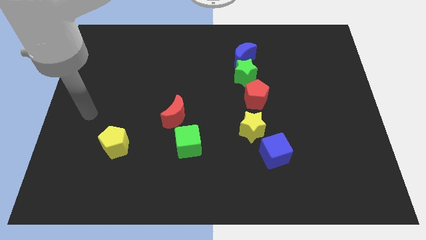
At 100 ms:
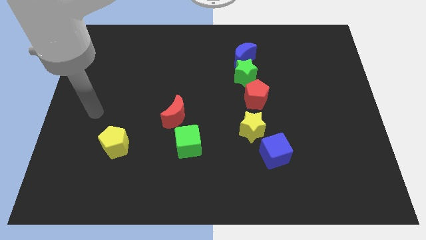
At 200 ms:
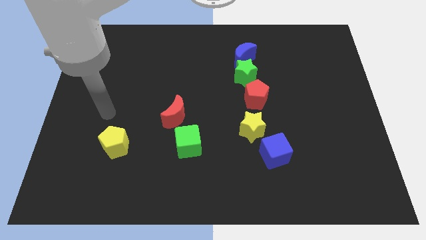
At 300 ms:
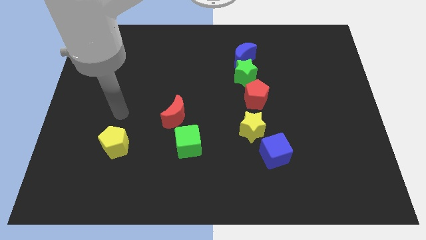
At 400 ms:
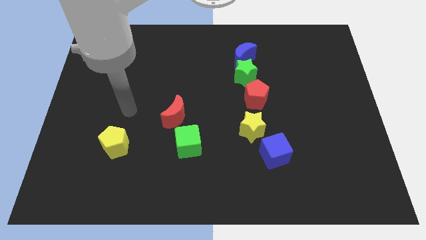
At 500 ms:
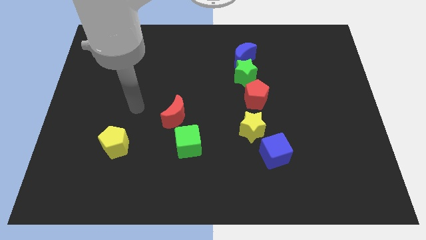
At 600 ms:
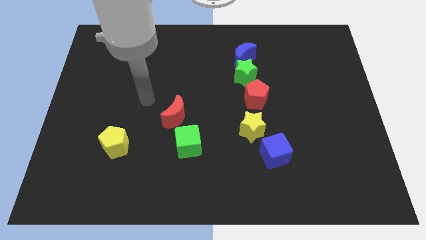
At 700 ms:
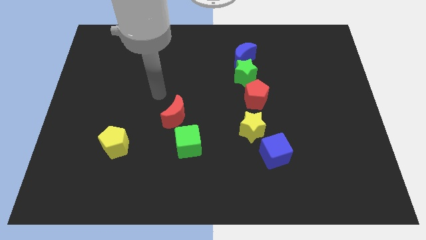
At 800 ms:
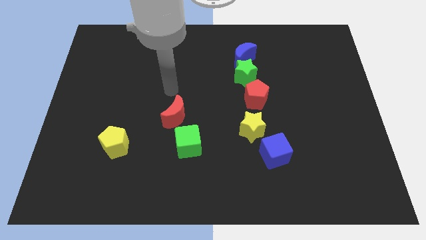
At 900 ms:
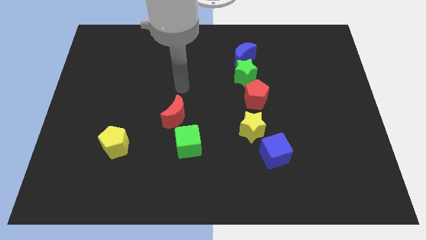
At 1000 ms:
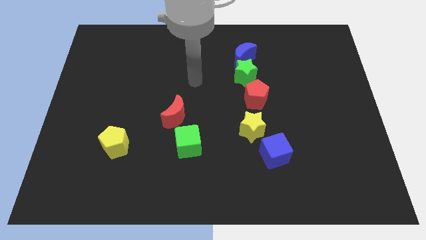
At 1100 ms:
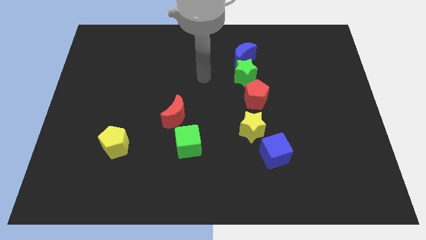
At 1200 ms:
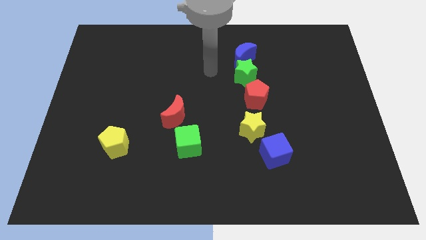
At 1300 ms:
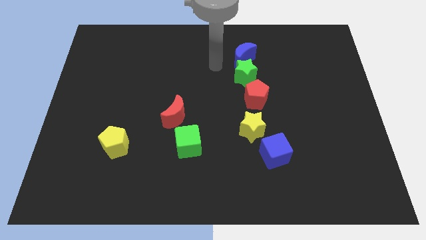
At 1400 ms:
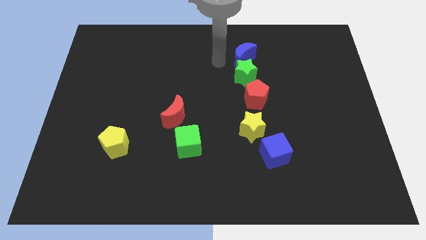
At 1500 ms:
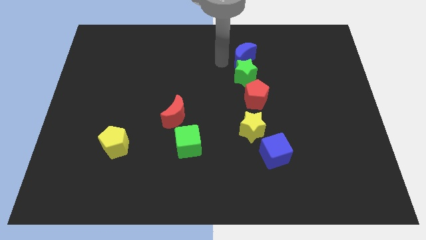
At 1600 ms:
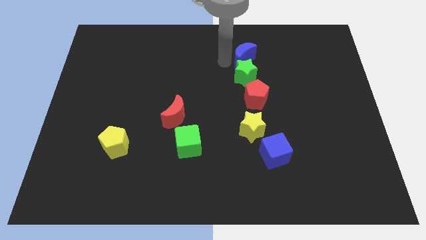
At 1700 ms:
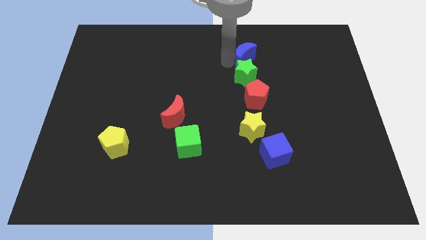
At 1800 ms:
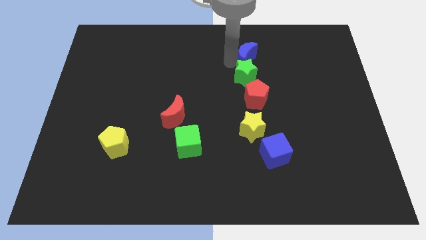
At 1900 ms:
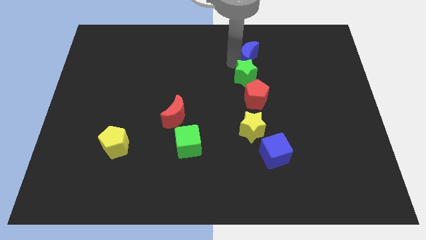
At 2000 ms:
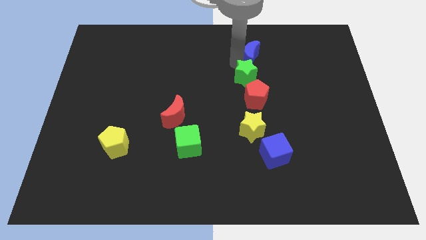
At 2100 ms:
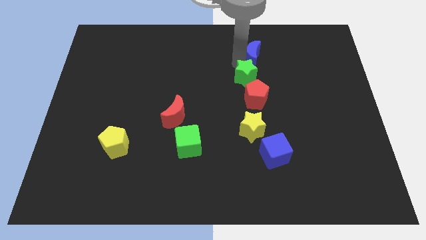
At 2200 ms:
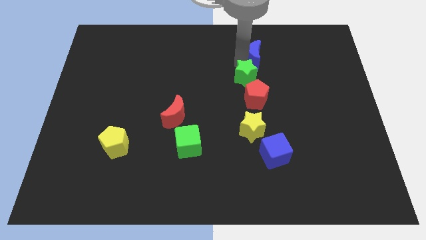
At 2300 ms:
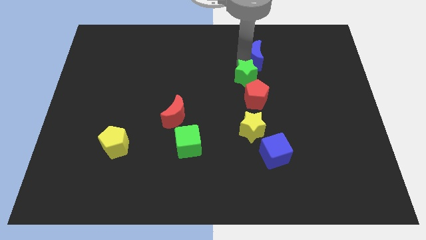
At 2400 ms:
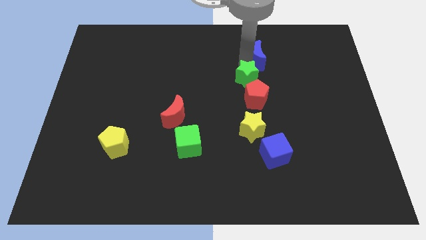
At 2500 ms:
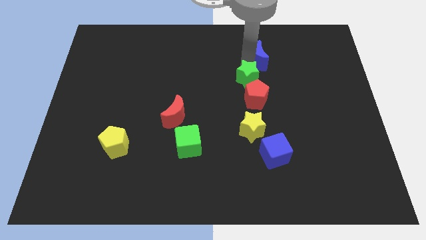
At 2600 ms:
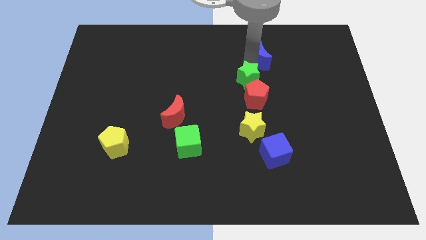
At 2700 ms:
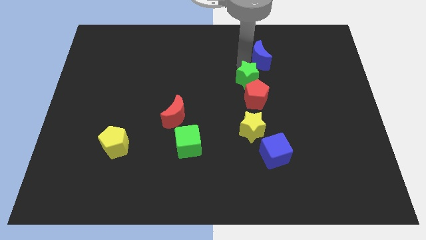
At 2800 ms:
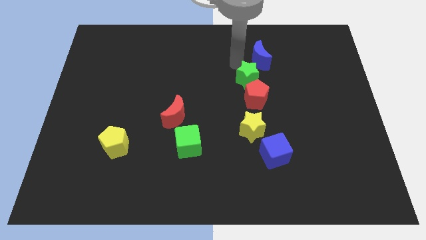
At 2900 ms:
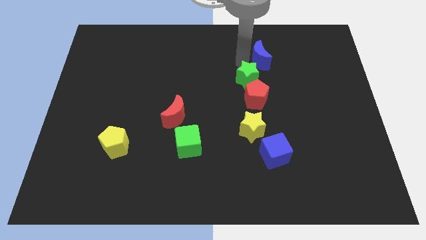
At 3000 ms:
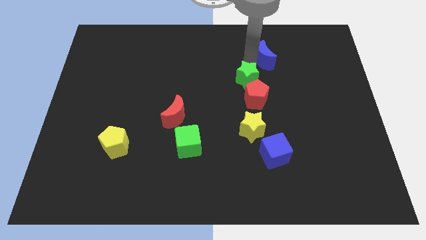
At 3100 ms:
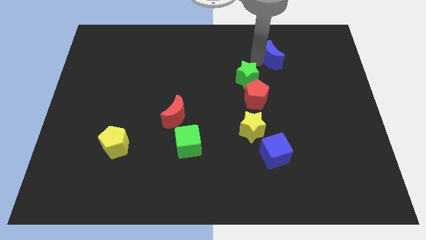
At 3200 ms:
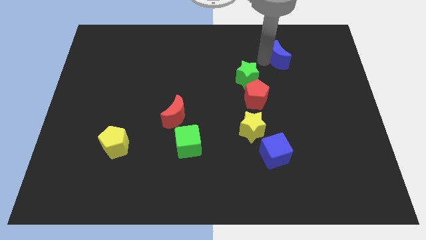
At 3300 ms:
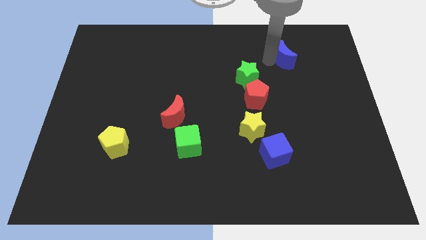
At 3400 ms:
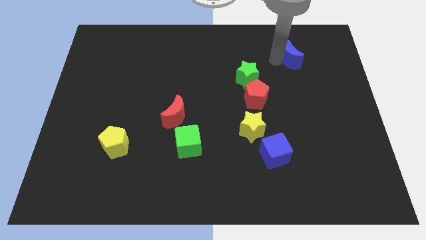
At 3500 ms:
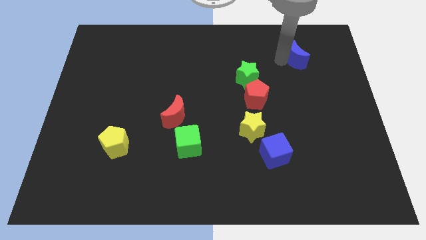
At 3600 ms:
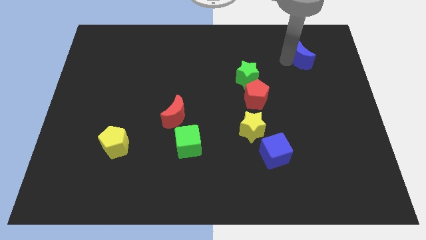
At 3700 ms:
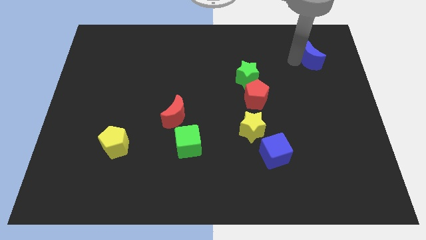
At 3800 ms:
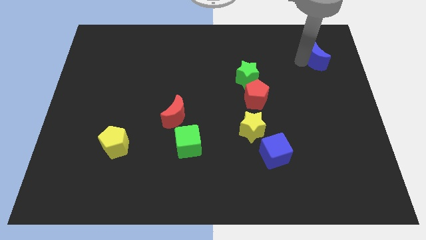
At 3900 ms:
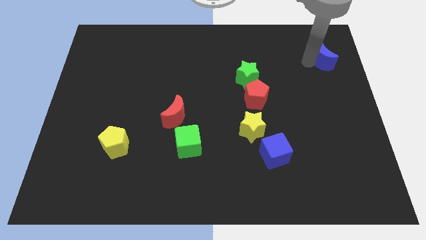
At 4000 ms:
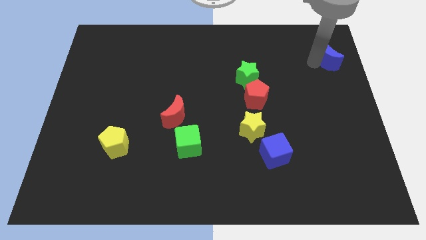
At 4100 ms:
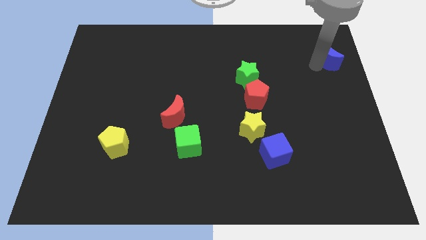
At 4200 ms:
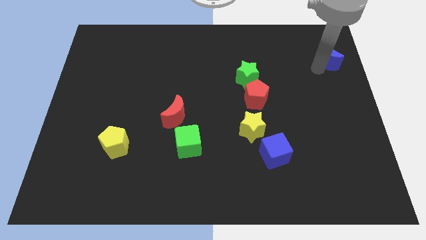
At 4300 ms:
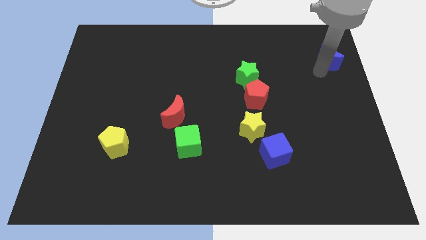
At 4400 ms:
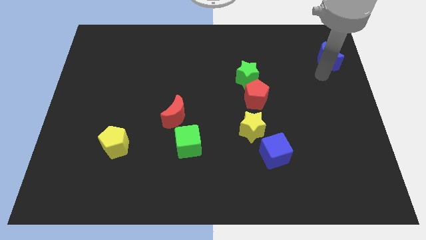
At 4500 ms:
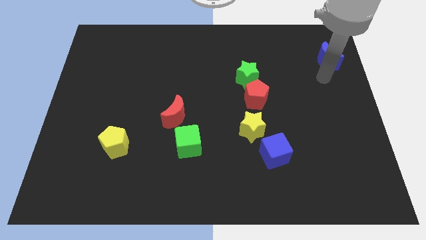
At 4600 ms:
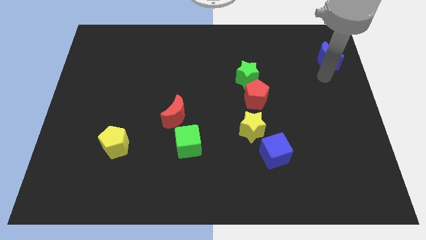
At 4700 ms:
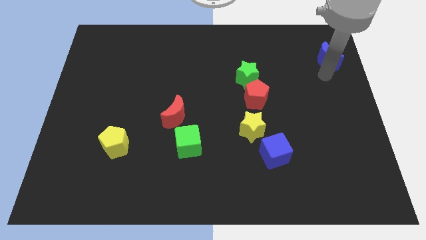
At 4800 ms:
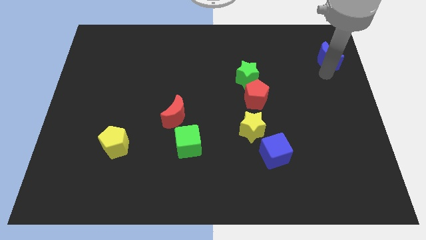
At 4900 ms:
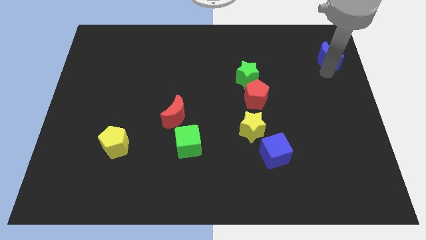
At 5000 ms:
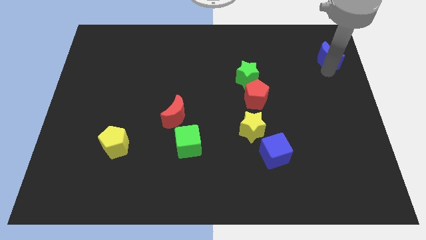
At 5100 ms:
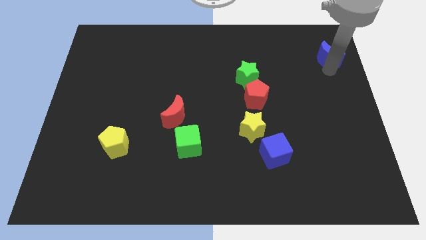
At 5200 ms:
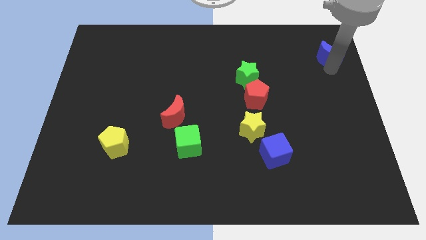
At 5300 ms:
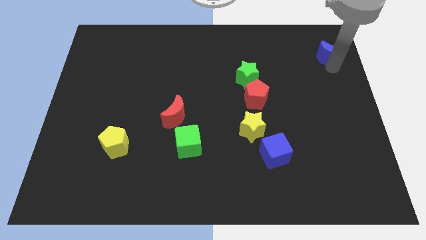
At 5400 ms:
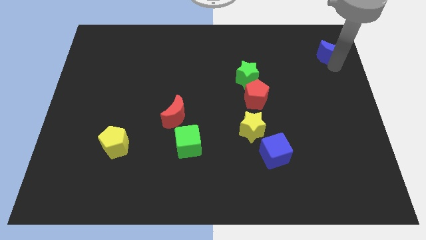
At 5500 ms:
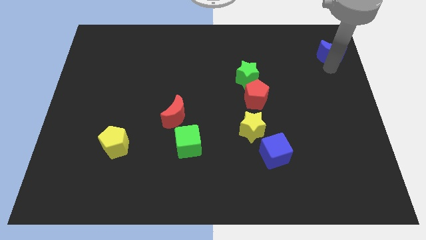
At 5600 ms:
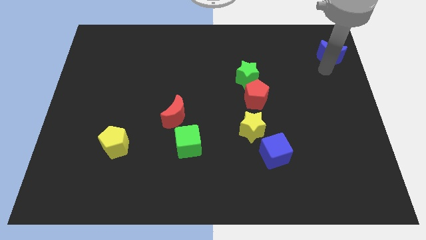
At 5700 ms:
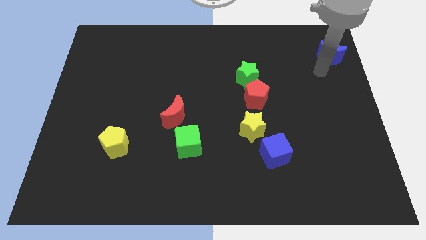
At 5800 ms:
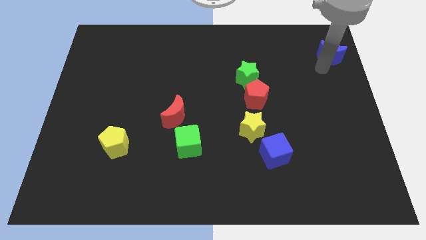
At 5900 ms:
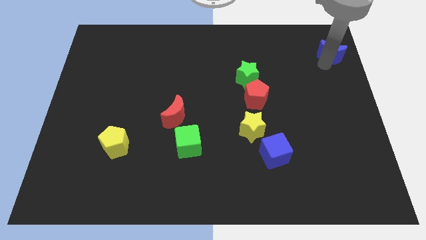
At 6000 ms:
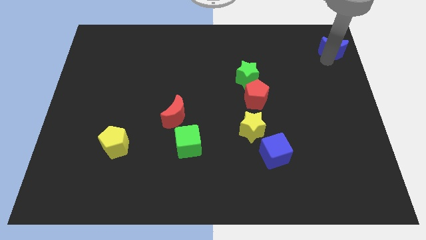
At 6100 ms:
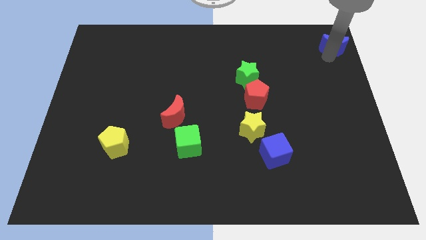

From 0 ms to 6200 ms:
push the blue moon to the top right

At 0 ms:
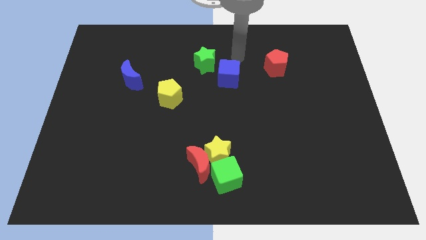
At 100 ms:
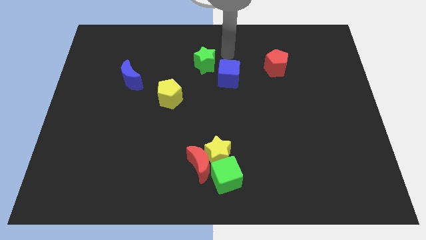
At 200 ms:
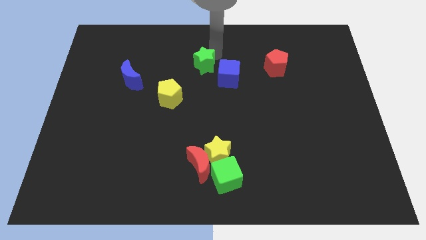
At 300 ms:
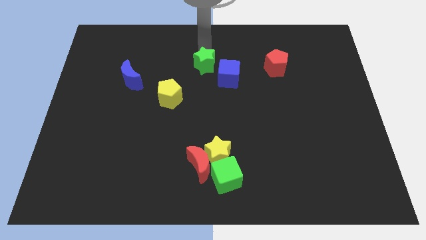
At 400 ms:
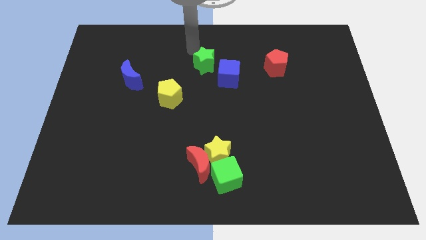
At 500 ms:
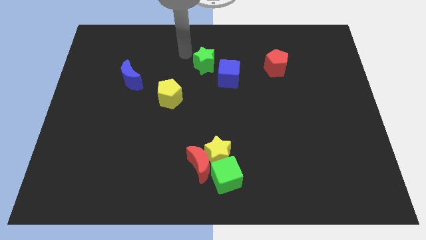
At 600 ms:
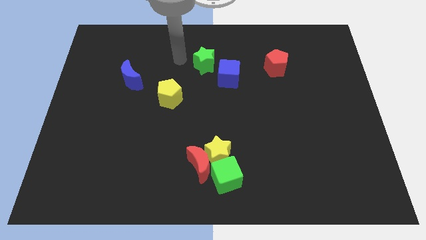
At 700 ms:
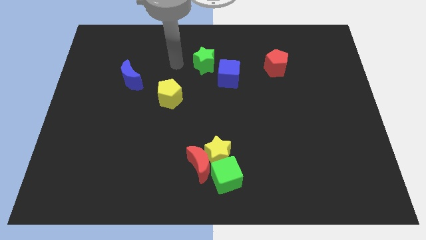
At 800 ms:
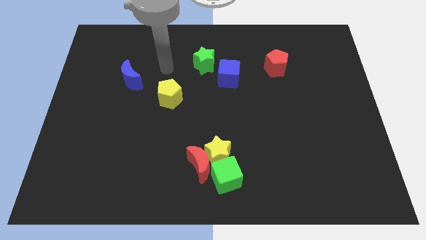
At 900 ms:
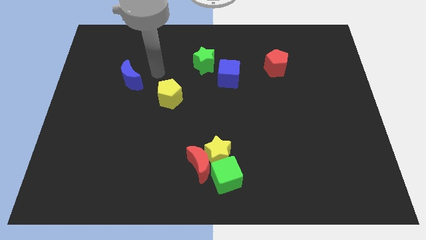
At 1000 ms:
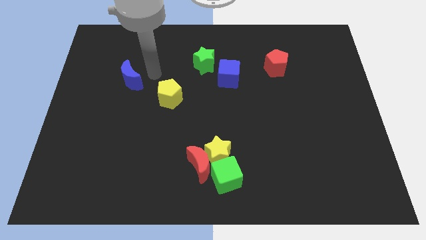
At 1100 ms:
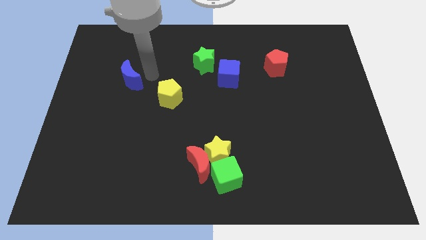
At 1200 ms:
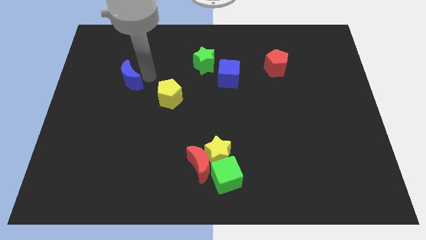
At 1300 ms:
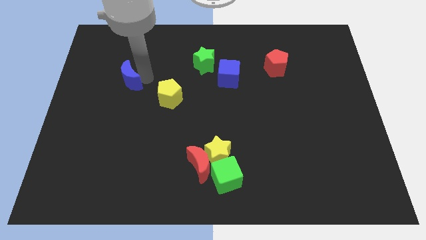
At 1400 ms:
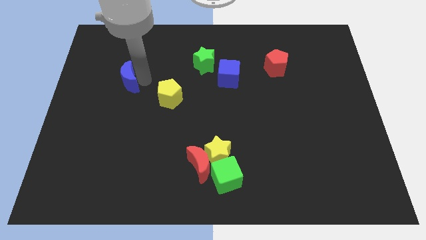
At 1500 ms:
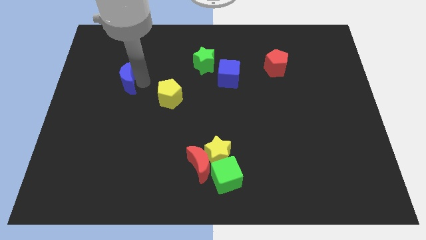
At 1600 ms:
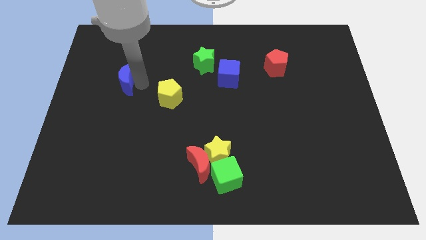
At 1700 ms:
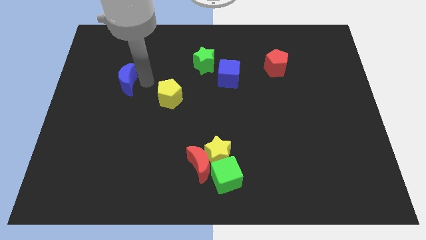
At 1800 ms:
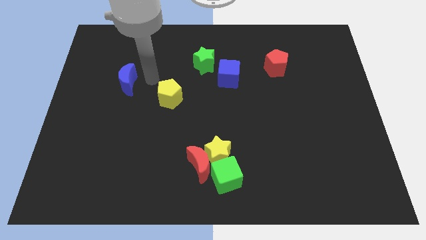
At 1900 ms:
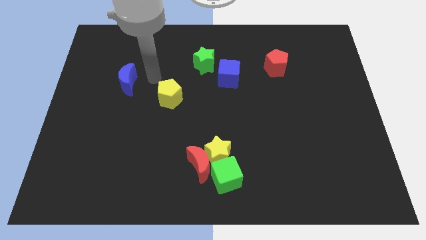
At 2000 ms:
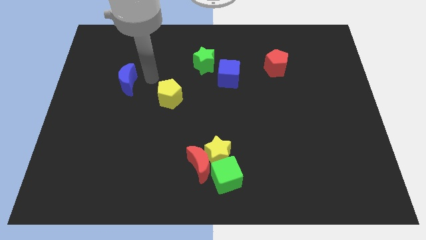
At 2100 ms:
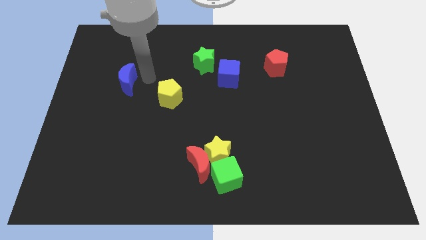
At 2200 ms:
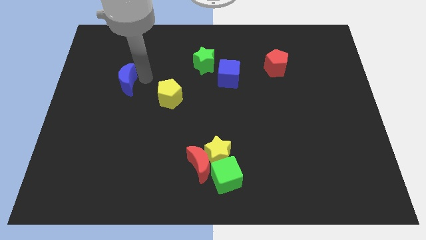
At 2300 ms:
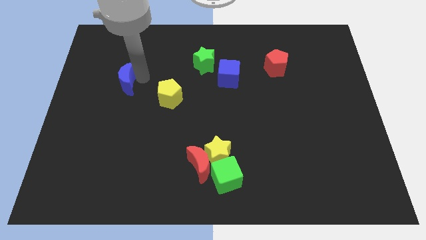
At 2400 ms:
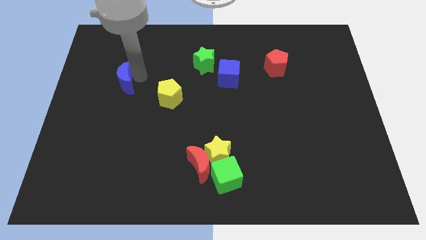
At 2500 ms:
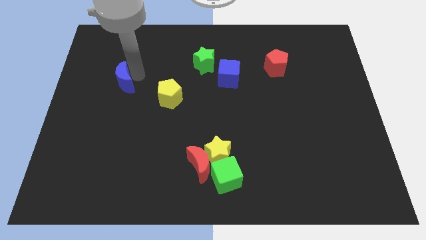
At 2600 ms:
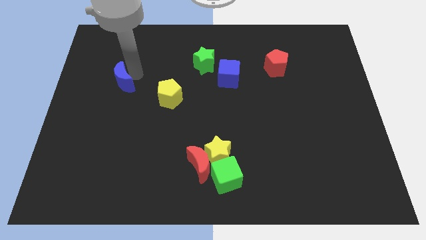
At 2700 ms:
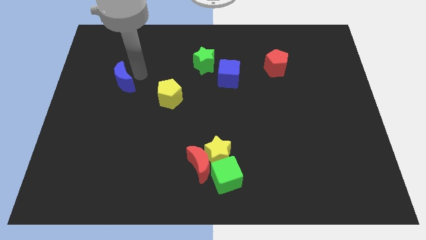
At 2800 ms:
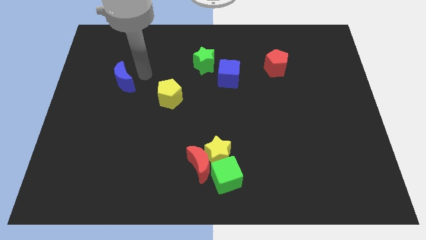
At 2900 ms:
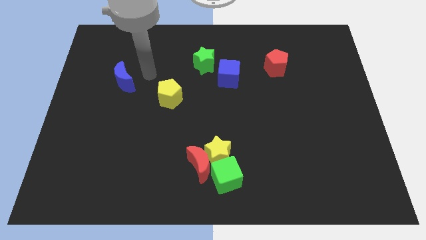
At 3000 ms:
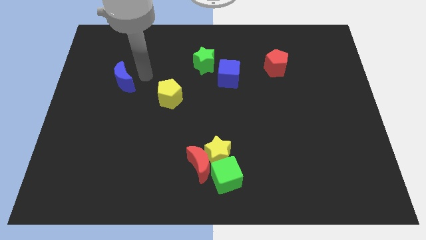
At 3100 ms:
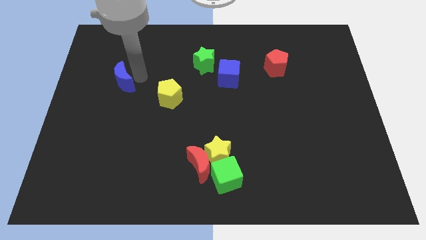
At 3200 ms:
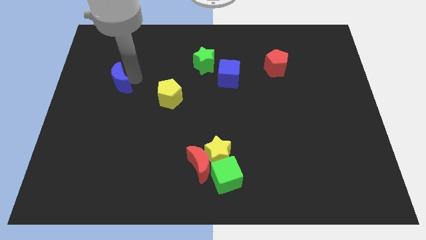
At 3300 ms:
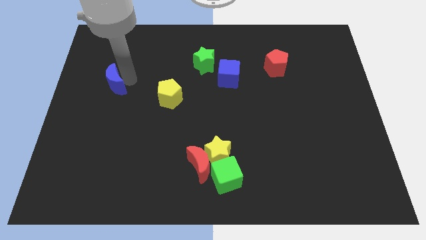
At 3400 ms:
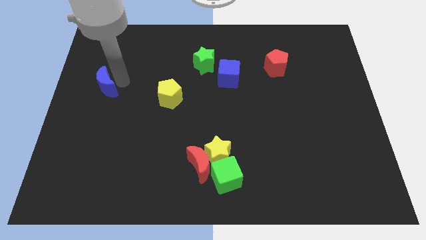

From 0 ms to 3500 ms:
push the blue moon to the left side of the board
